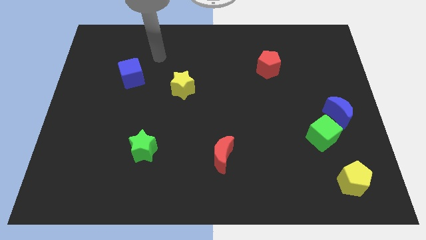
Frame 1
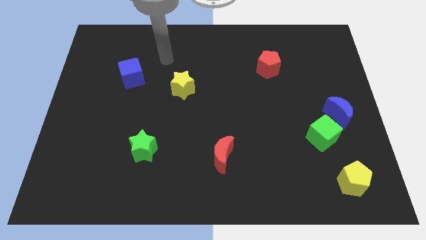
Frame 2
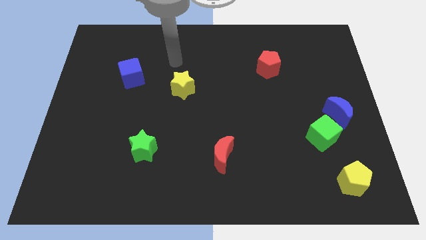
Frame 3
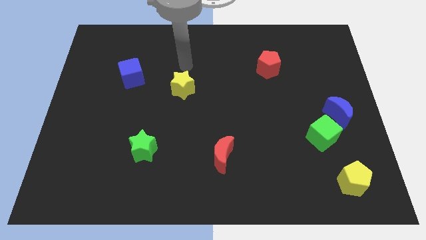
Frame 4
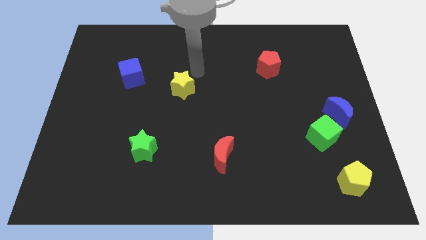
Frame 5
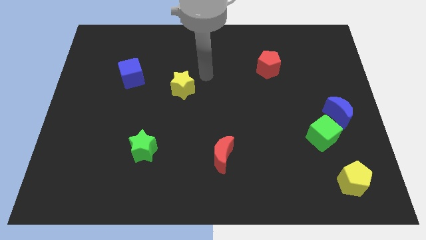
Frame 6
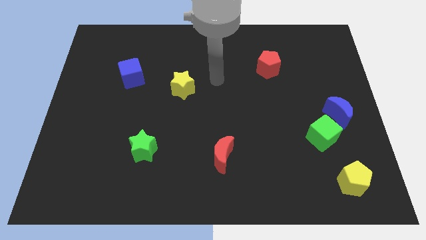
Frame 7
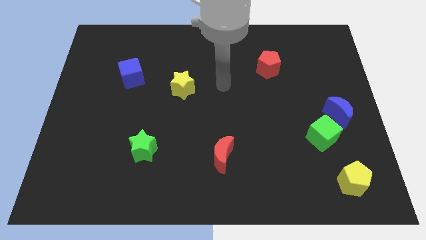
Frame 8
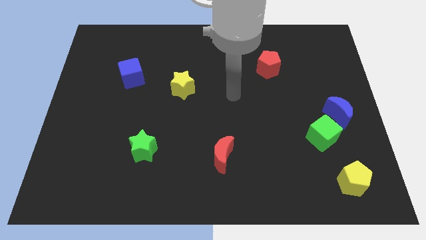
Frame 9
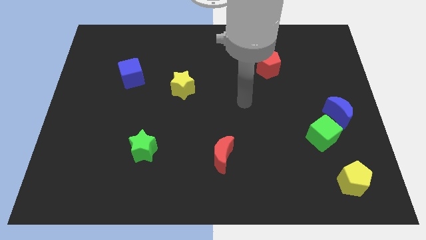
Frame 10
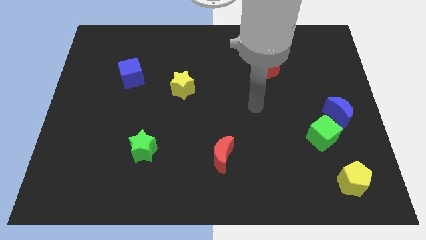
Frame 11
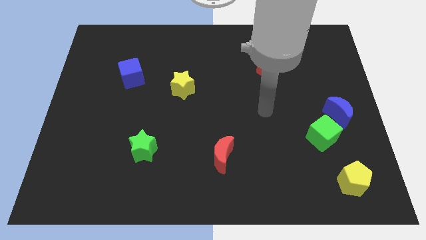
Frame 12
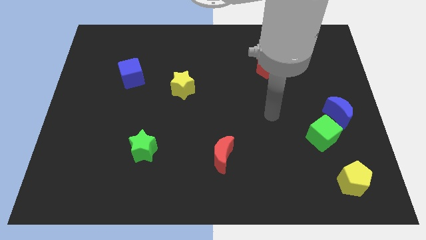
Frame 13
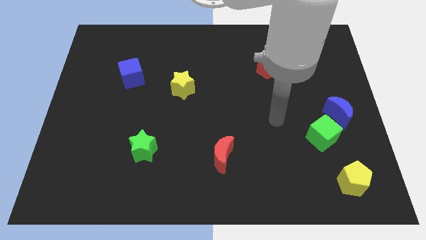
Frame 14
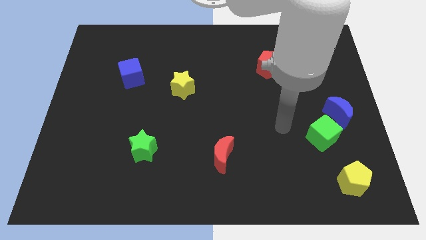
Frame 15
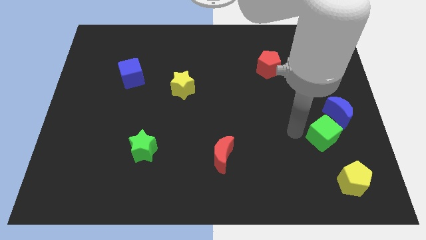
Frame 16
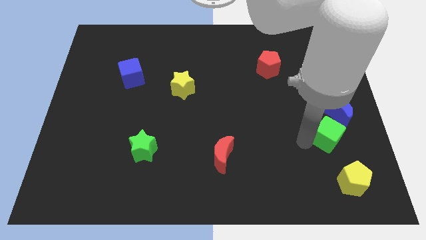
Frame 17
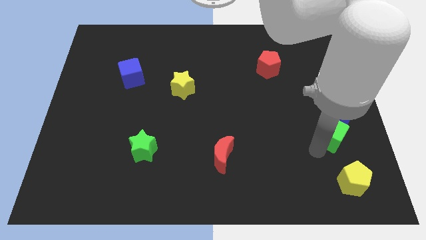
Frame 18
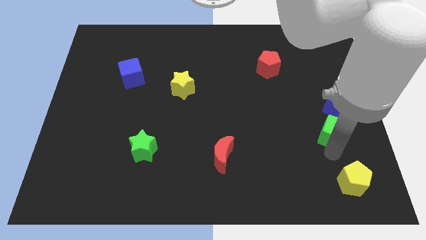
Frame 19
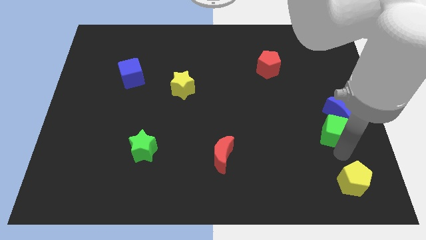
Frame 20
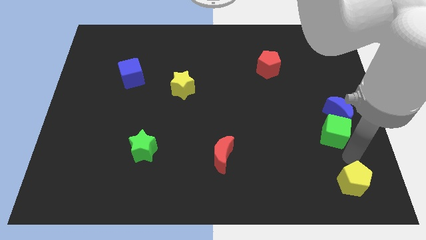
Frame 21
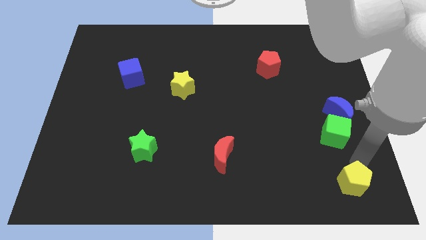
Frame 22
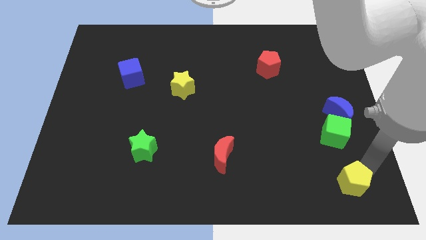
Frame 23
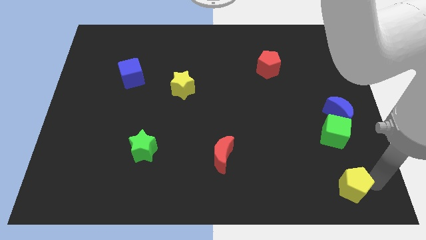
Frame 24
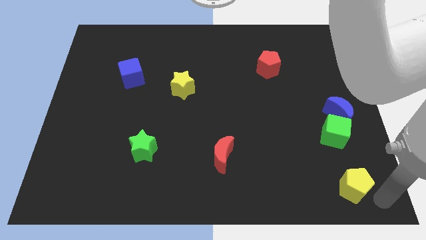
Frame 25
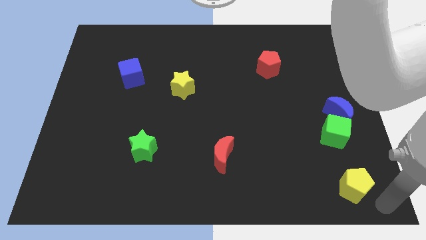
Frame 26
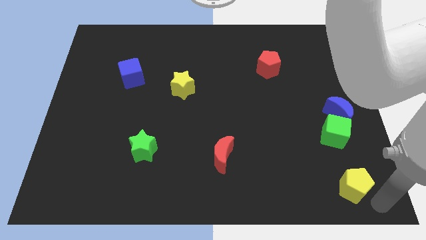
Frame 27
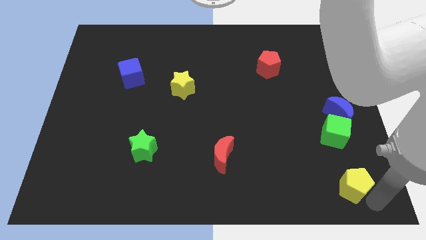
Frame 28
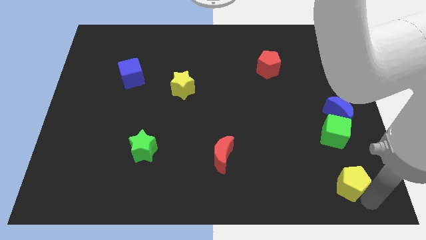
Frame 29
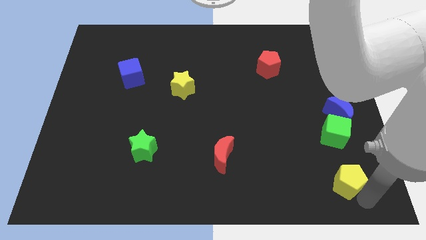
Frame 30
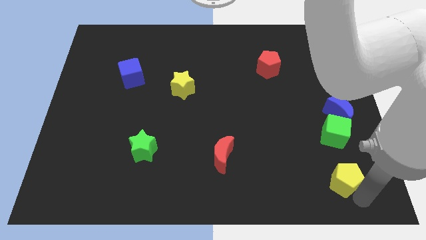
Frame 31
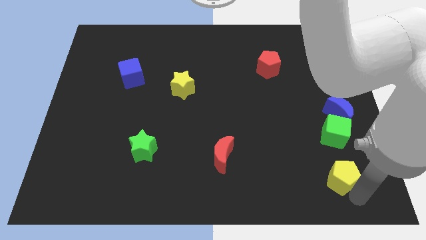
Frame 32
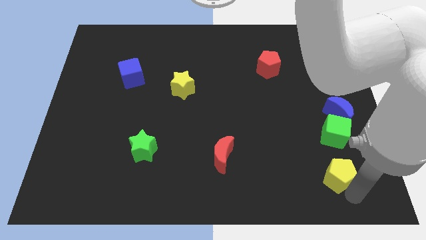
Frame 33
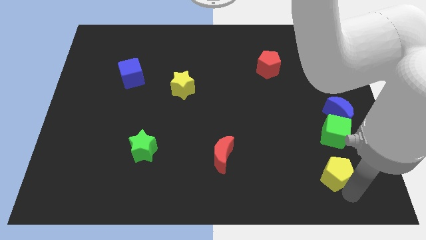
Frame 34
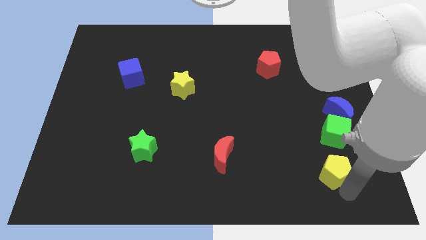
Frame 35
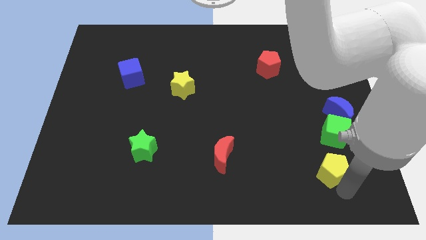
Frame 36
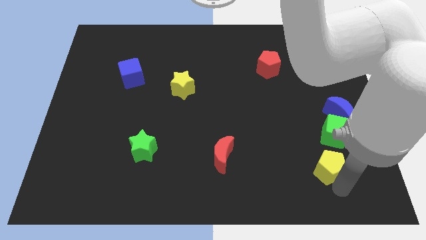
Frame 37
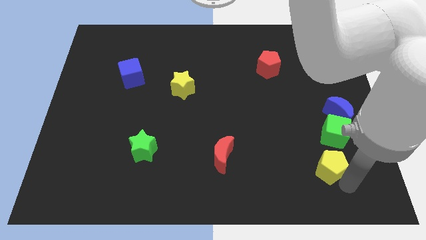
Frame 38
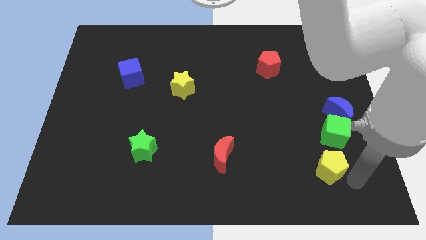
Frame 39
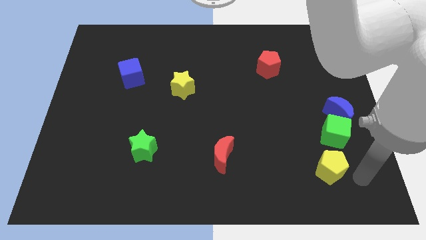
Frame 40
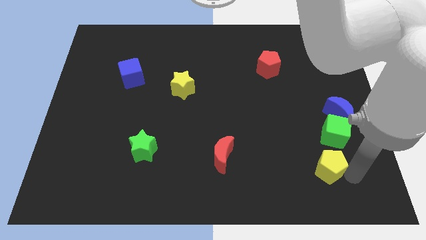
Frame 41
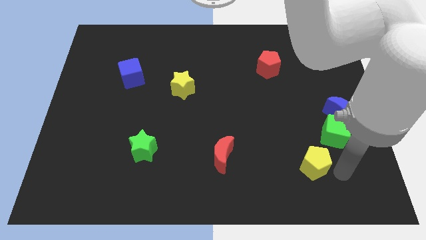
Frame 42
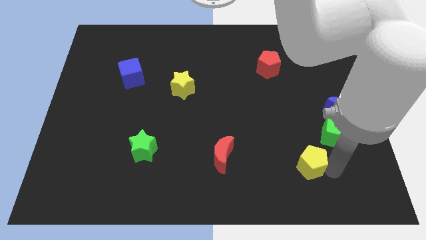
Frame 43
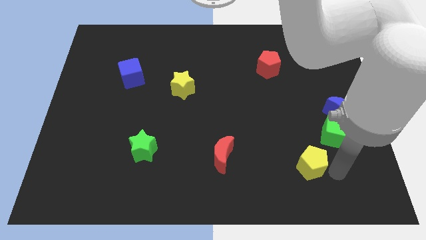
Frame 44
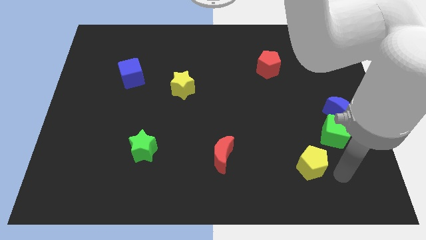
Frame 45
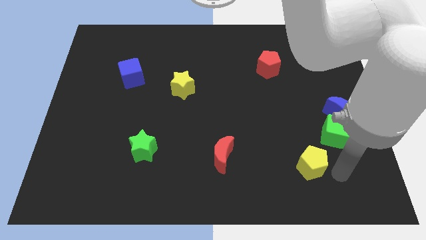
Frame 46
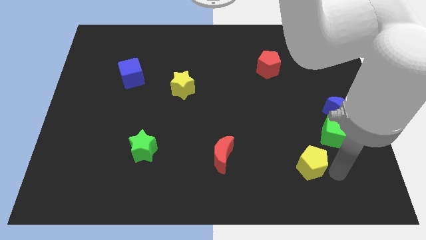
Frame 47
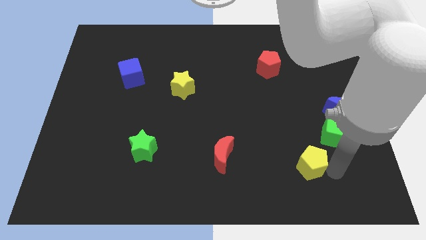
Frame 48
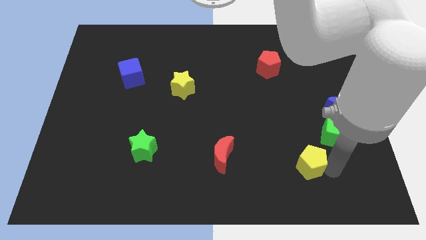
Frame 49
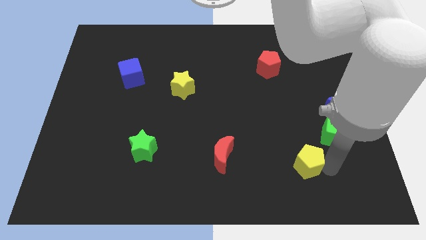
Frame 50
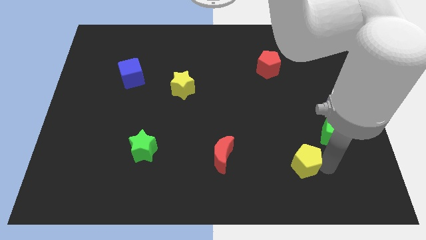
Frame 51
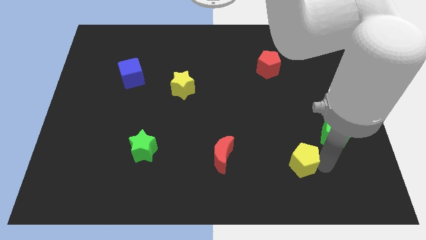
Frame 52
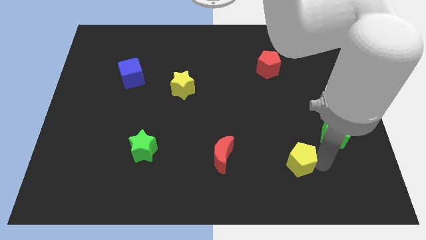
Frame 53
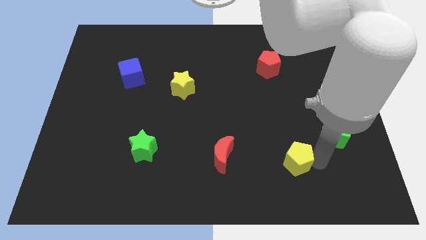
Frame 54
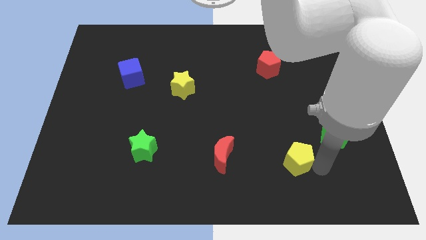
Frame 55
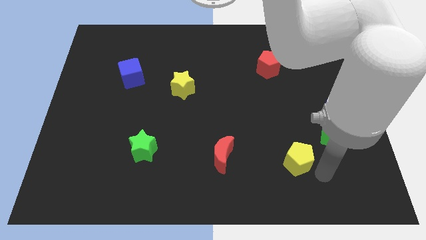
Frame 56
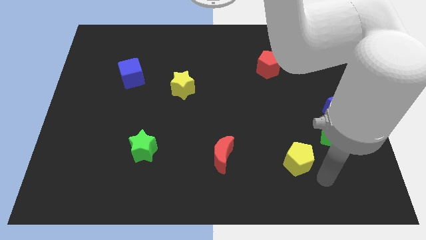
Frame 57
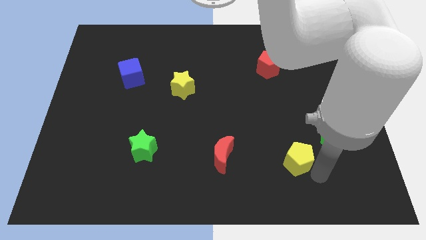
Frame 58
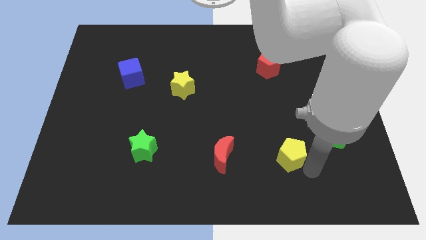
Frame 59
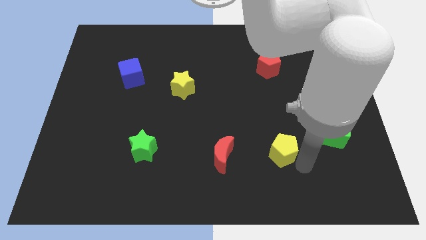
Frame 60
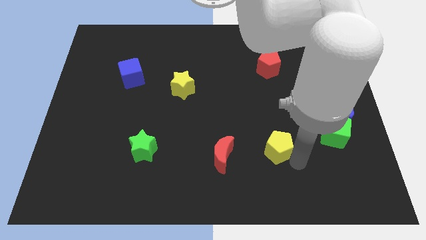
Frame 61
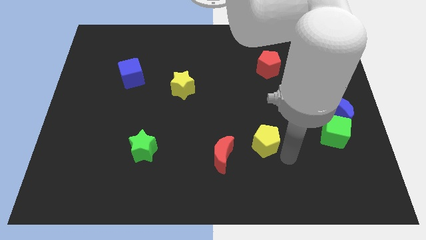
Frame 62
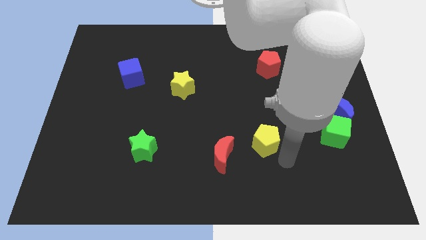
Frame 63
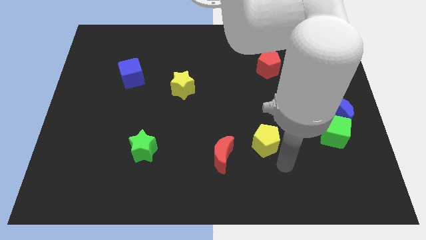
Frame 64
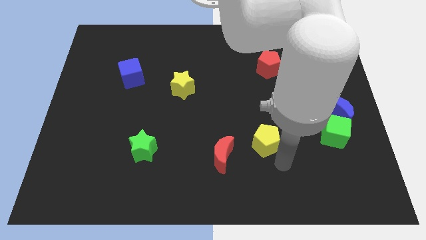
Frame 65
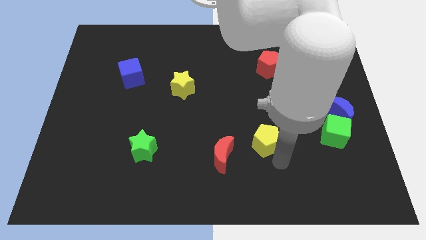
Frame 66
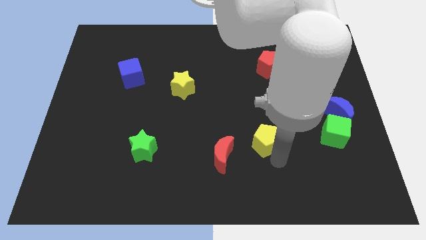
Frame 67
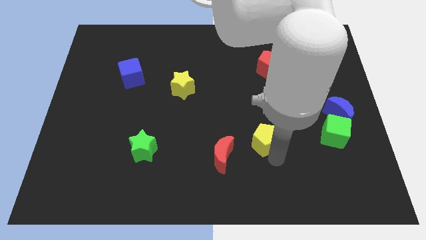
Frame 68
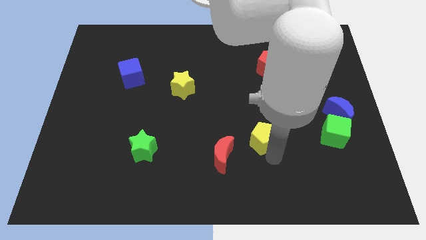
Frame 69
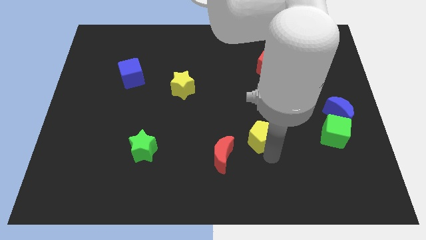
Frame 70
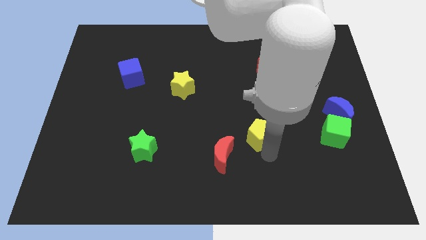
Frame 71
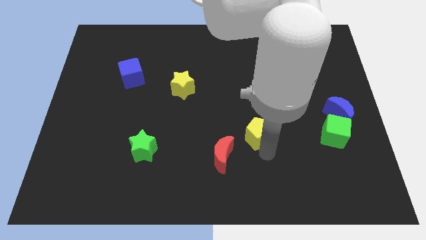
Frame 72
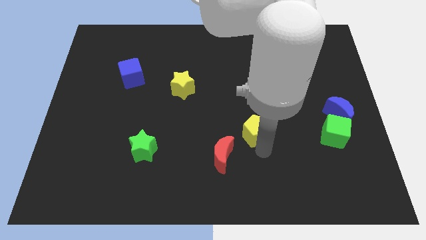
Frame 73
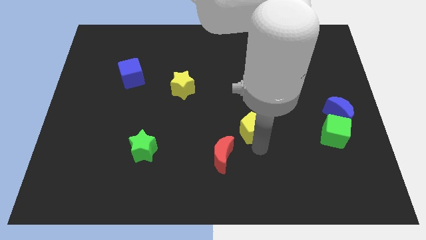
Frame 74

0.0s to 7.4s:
slide the yellow pentagon to the middle of the board
